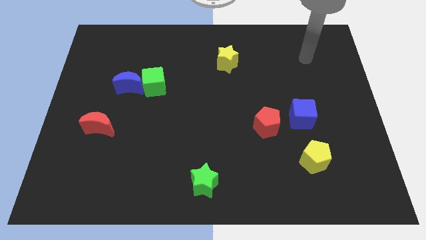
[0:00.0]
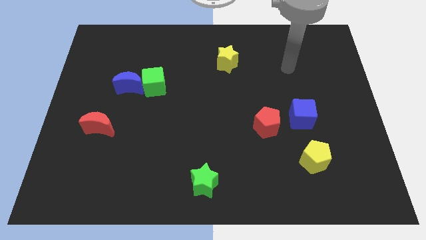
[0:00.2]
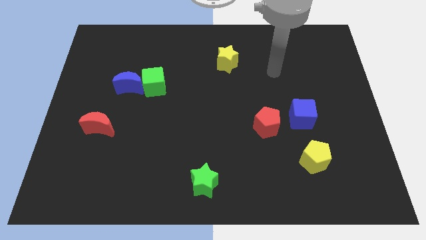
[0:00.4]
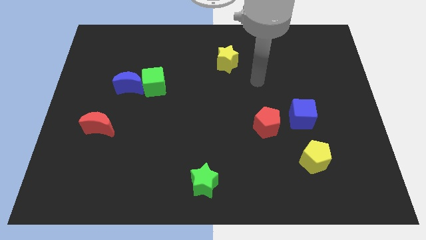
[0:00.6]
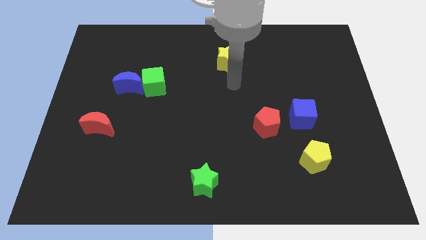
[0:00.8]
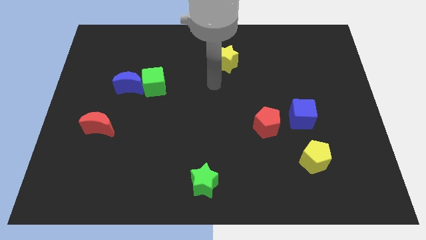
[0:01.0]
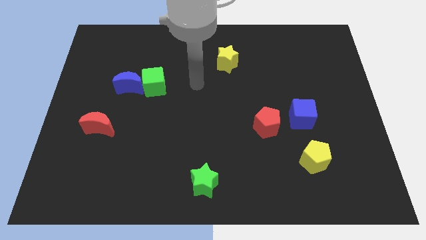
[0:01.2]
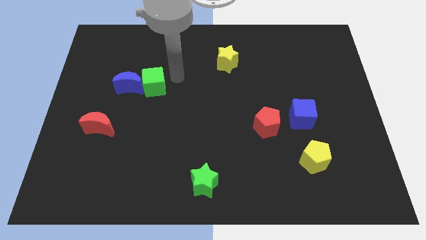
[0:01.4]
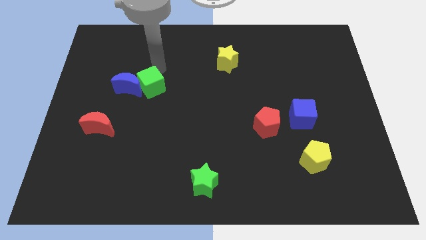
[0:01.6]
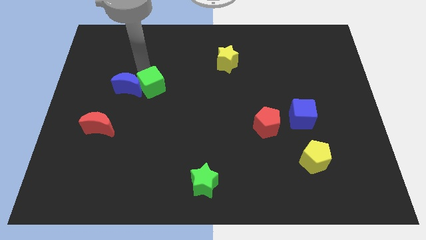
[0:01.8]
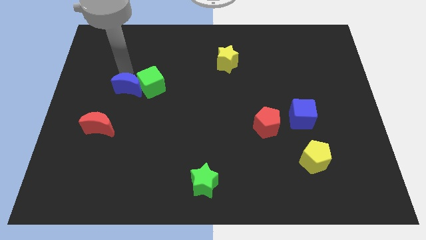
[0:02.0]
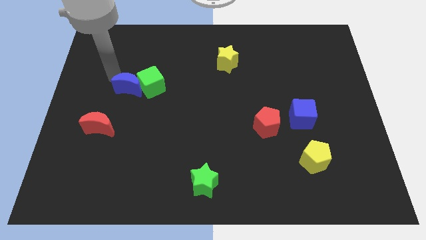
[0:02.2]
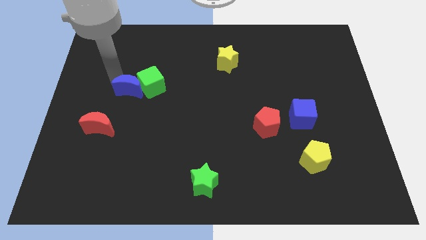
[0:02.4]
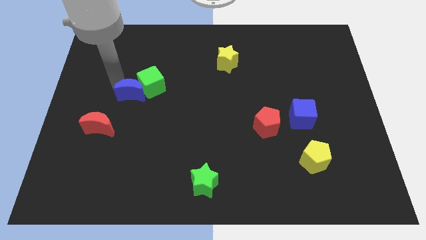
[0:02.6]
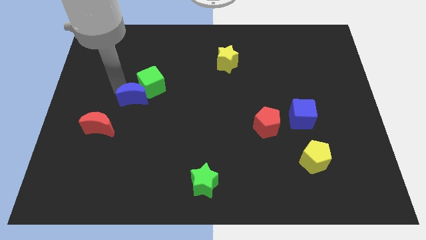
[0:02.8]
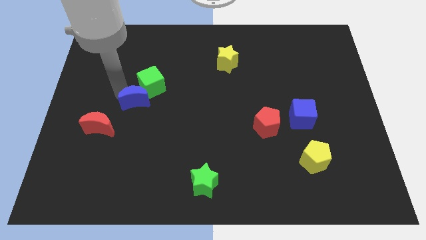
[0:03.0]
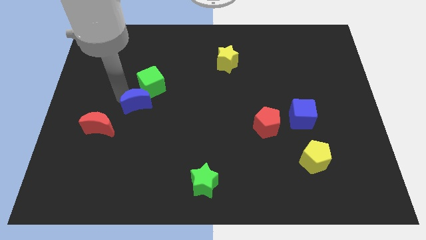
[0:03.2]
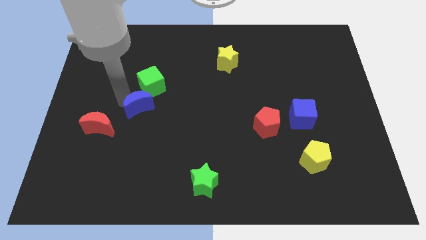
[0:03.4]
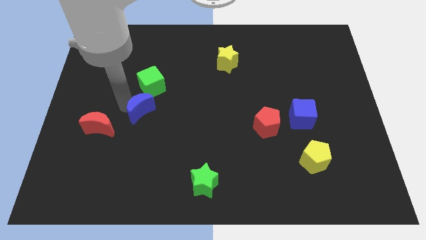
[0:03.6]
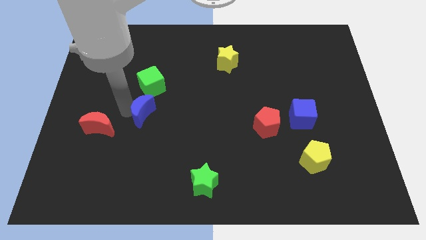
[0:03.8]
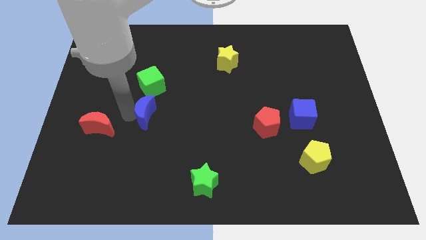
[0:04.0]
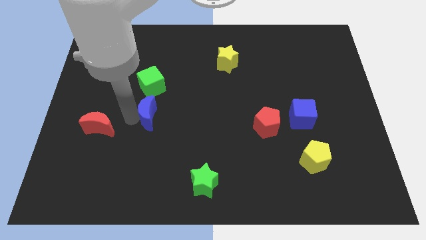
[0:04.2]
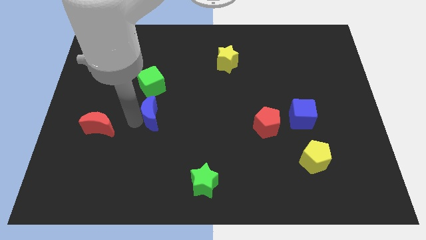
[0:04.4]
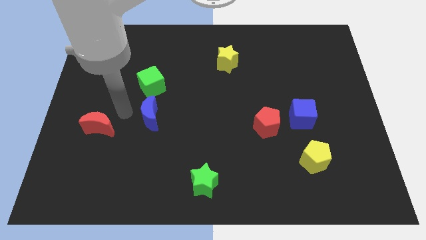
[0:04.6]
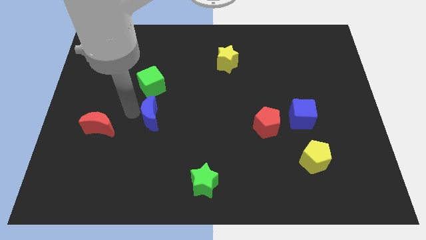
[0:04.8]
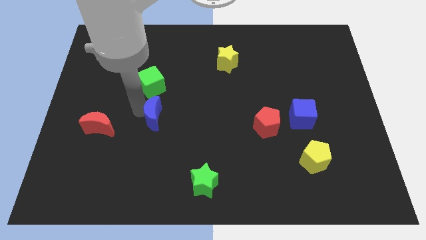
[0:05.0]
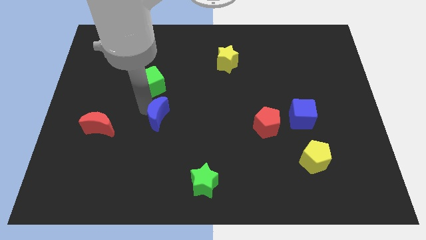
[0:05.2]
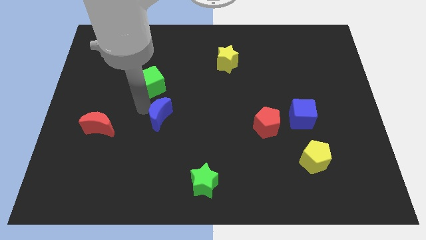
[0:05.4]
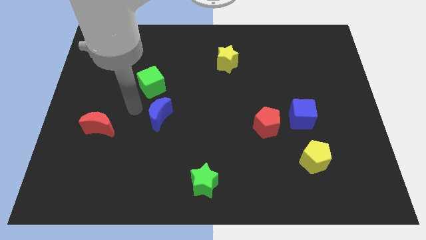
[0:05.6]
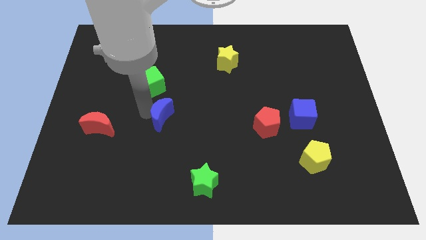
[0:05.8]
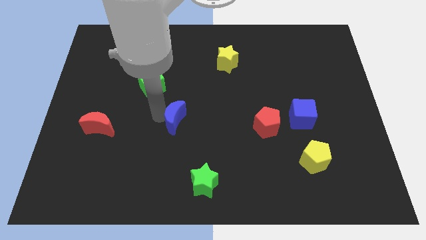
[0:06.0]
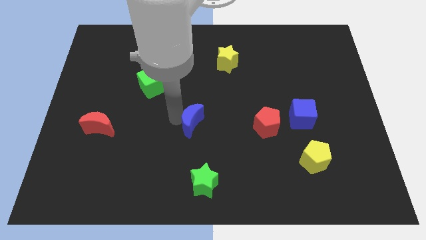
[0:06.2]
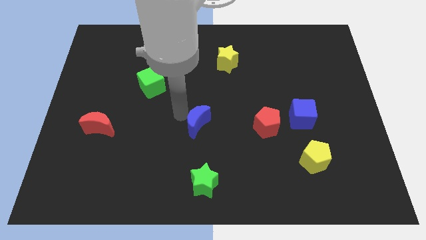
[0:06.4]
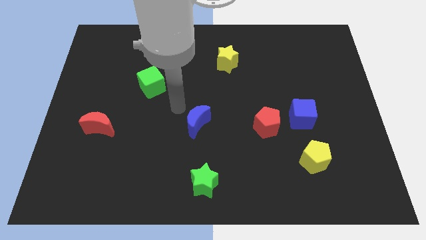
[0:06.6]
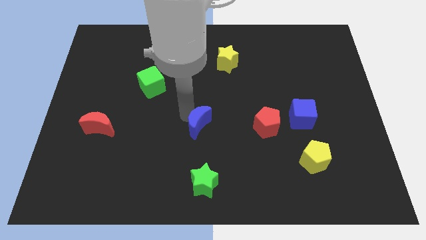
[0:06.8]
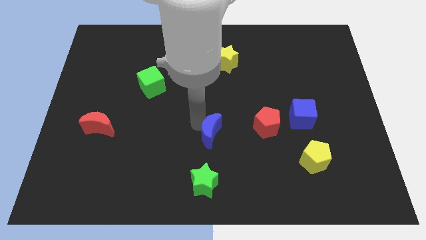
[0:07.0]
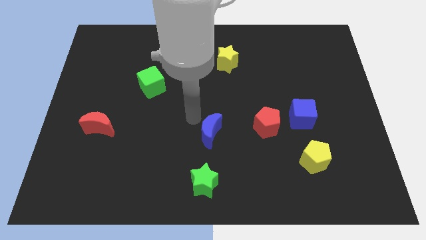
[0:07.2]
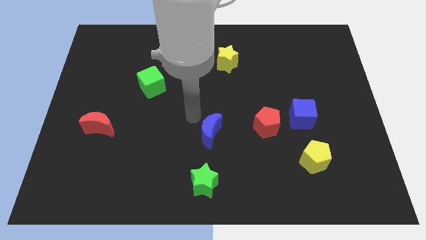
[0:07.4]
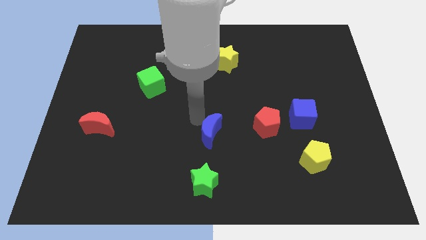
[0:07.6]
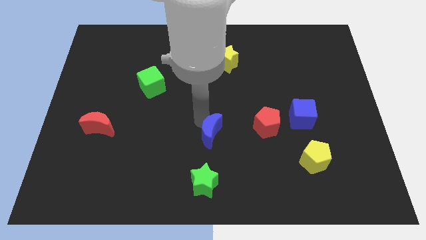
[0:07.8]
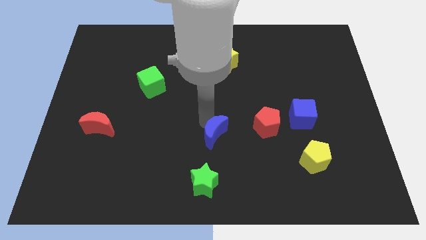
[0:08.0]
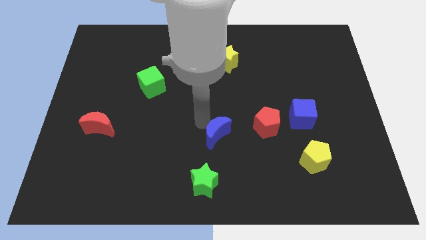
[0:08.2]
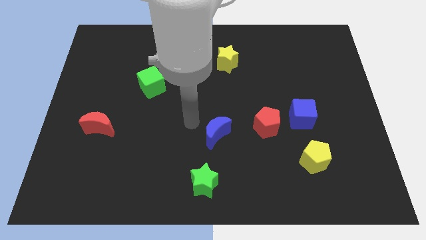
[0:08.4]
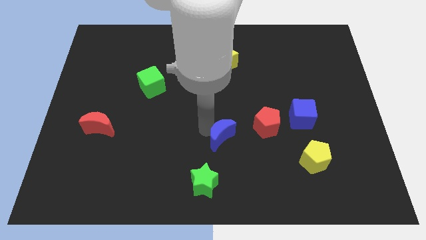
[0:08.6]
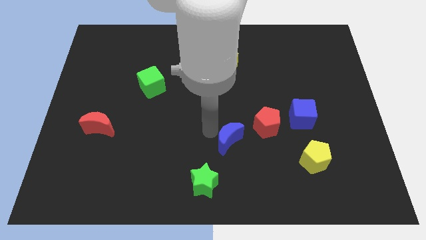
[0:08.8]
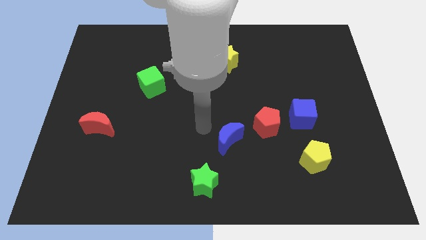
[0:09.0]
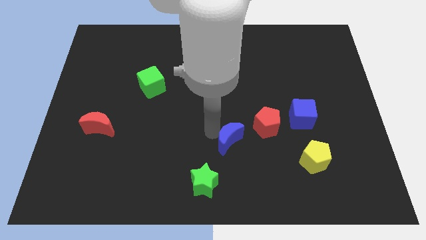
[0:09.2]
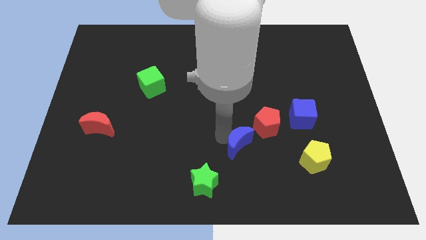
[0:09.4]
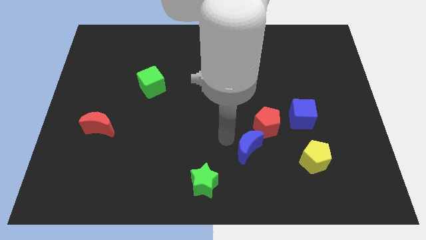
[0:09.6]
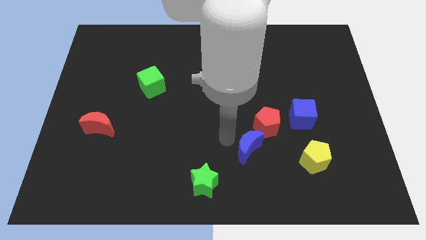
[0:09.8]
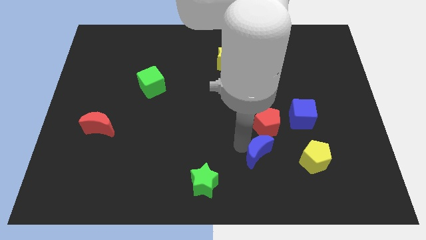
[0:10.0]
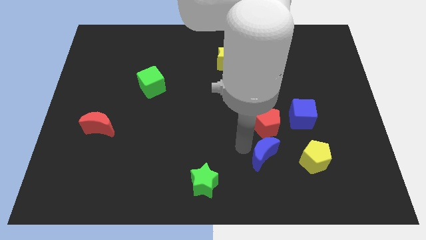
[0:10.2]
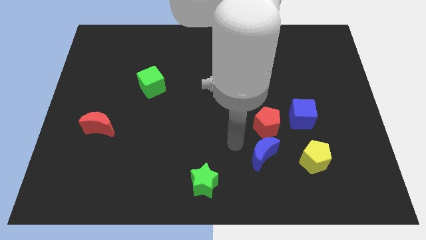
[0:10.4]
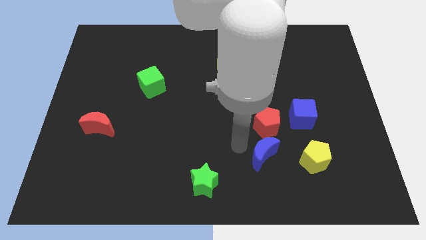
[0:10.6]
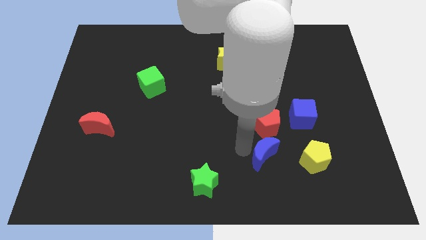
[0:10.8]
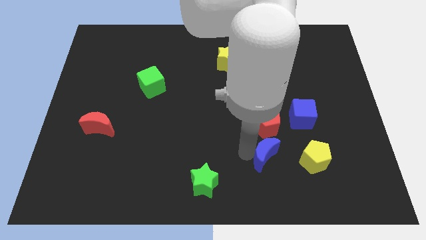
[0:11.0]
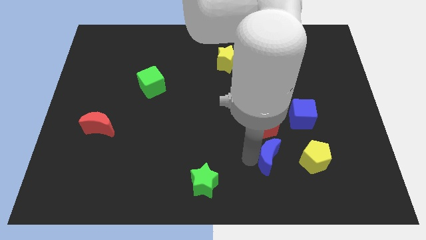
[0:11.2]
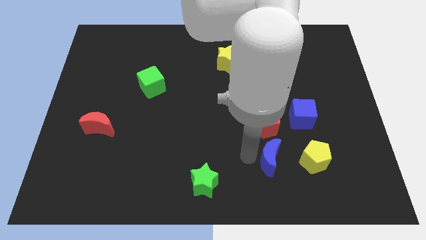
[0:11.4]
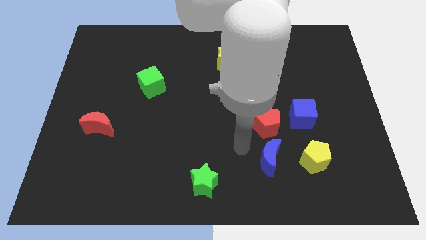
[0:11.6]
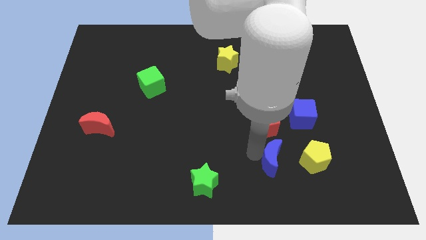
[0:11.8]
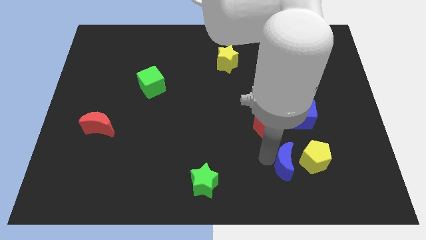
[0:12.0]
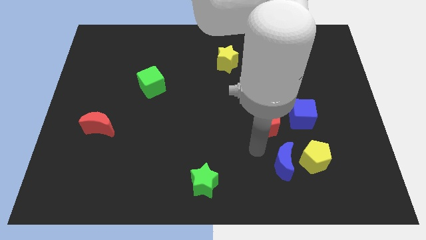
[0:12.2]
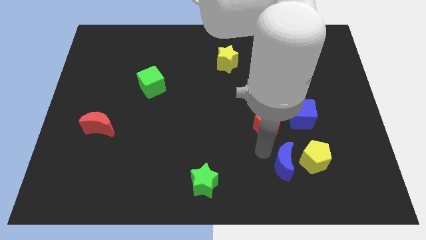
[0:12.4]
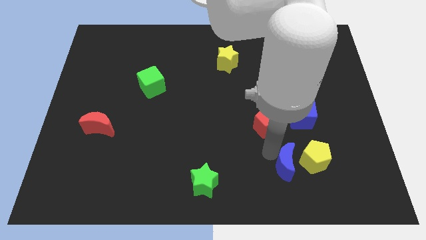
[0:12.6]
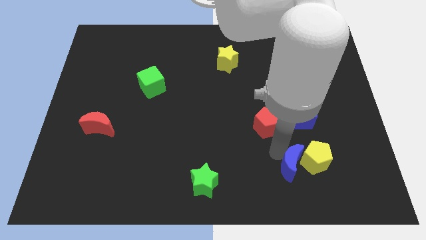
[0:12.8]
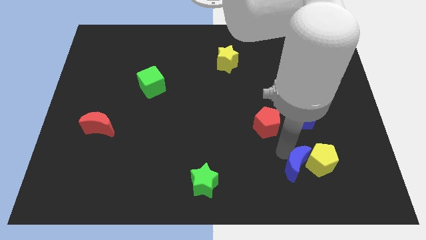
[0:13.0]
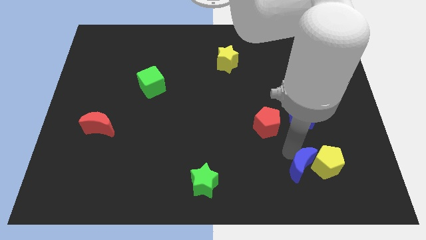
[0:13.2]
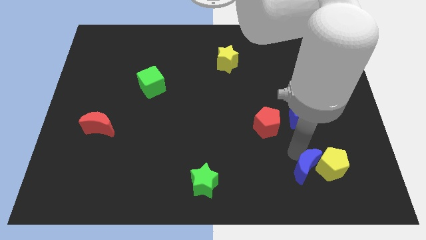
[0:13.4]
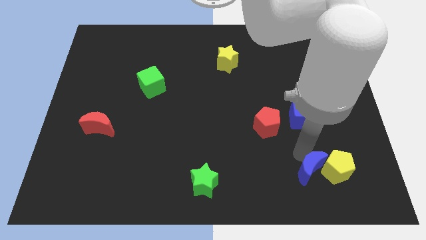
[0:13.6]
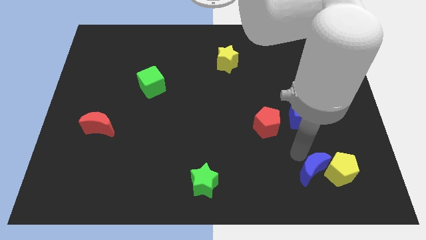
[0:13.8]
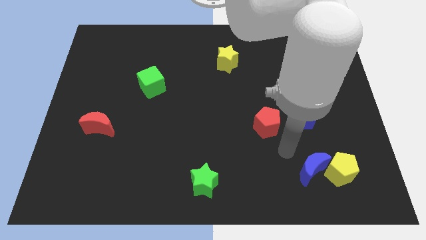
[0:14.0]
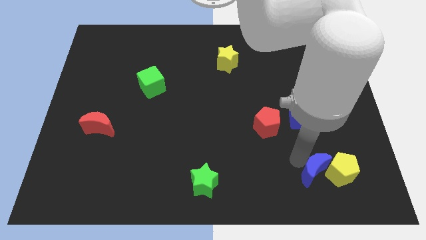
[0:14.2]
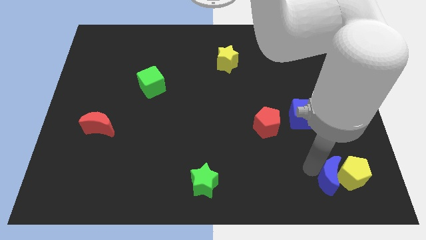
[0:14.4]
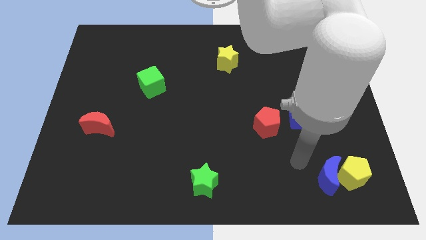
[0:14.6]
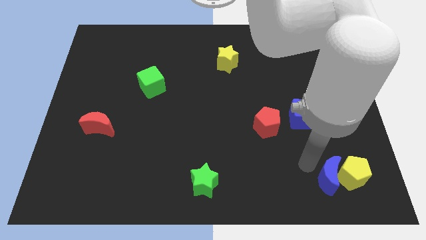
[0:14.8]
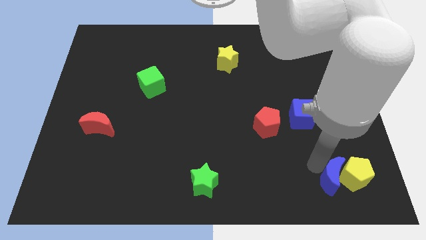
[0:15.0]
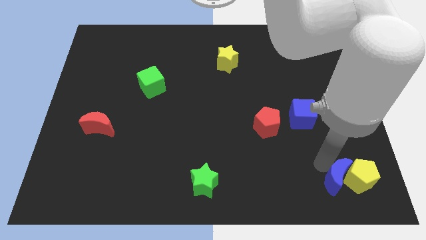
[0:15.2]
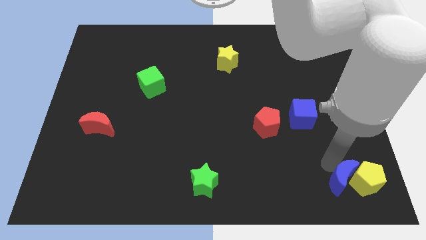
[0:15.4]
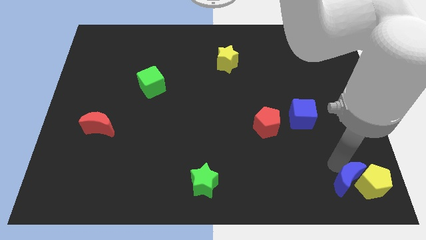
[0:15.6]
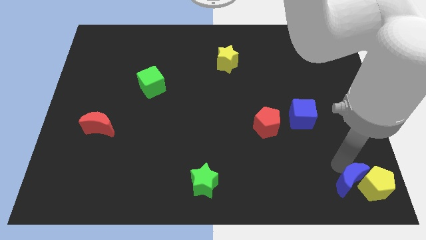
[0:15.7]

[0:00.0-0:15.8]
slide the blue moon to the bottom right corner
